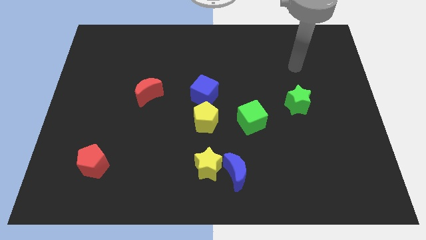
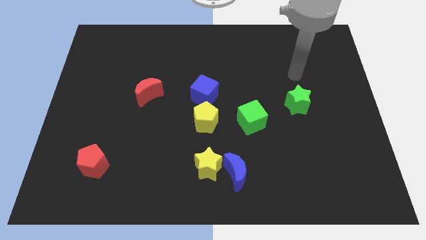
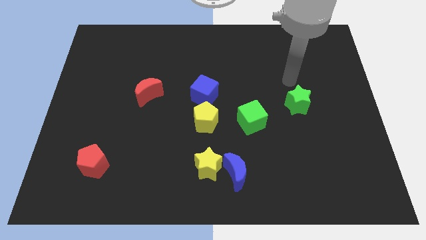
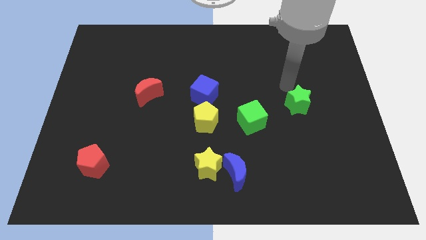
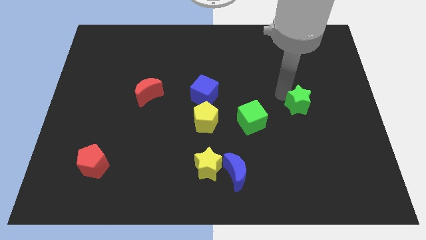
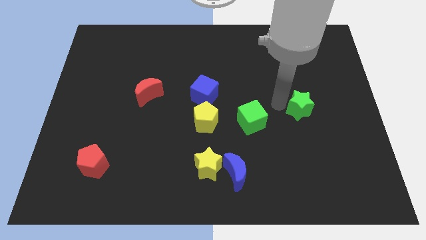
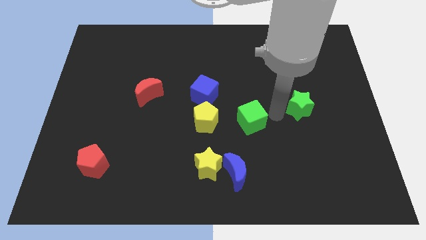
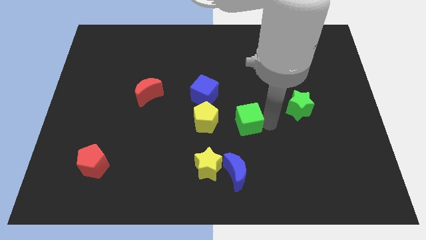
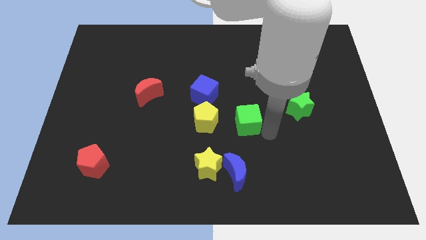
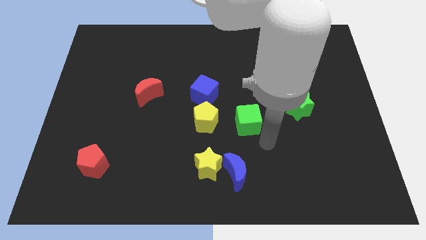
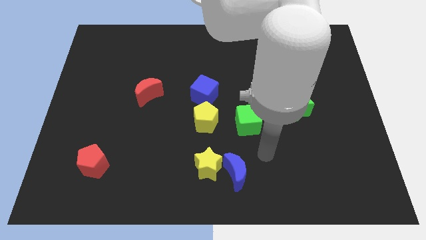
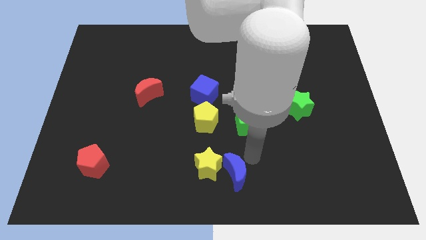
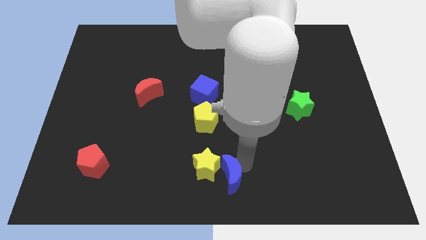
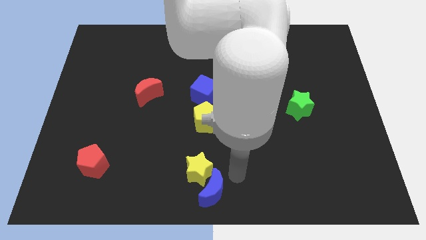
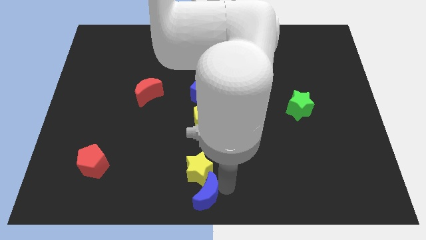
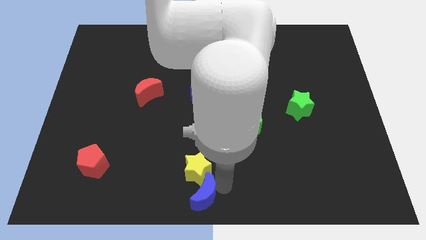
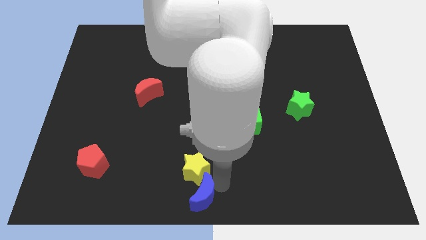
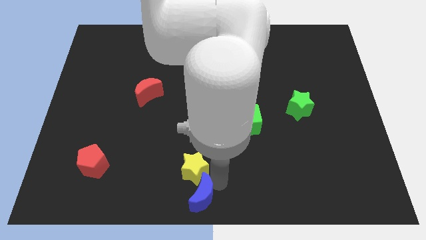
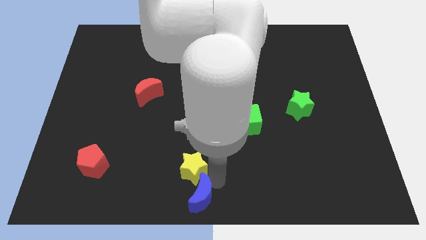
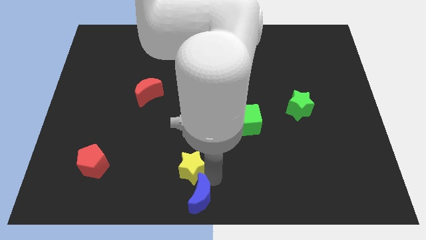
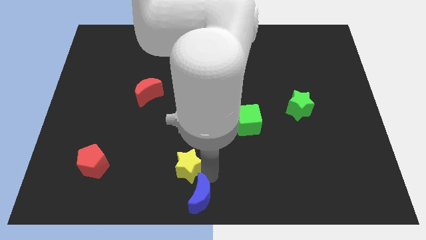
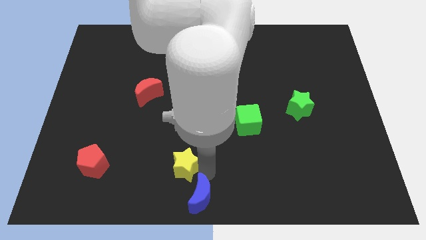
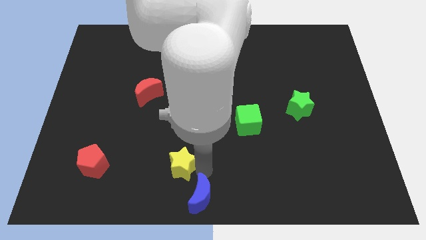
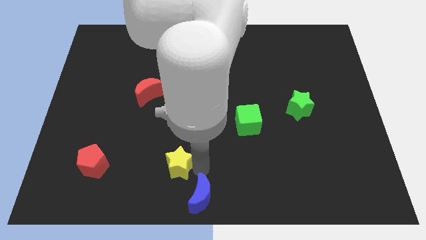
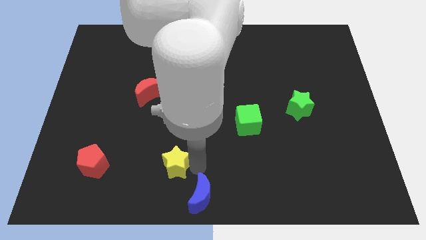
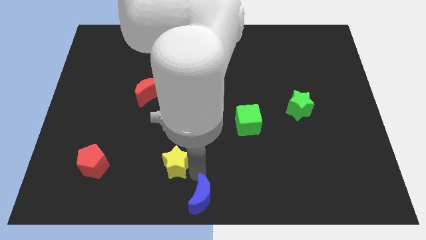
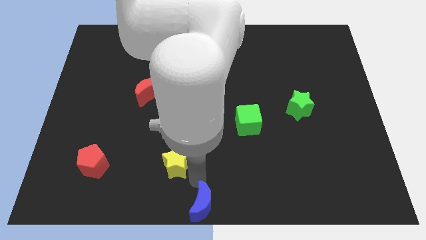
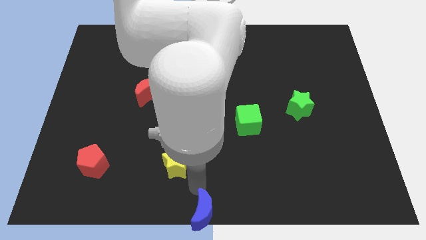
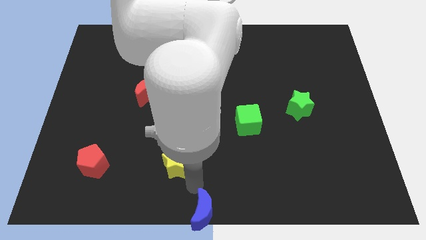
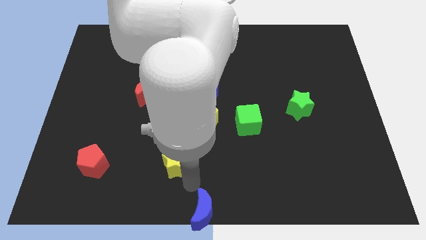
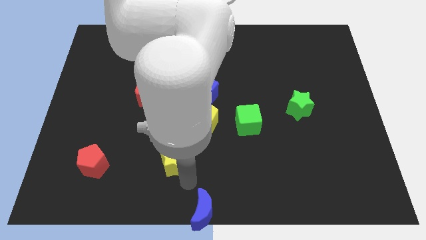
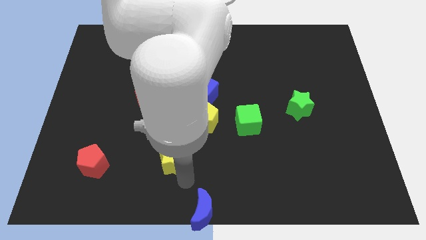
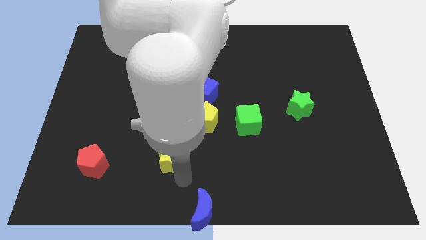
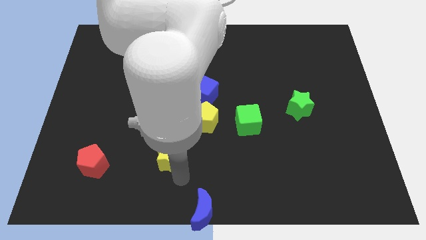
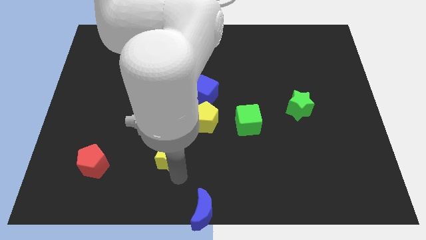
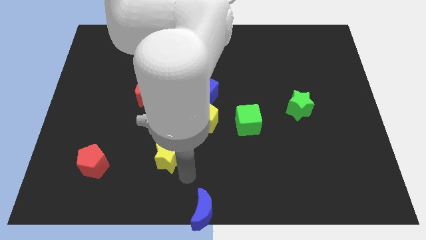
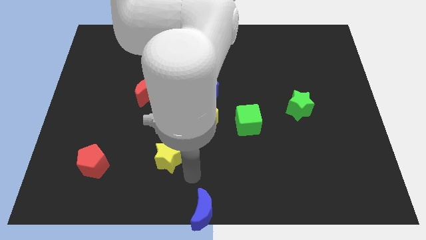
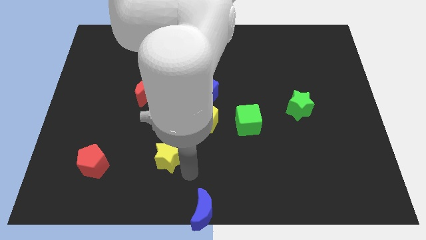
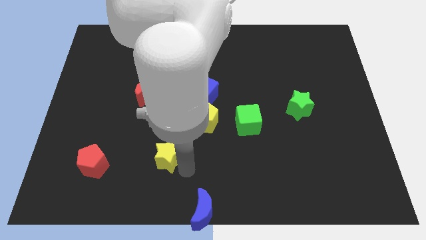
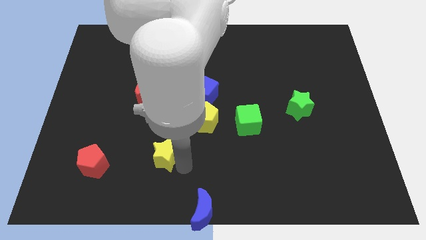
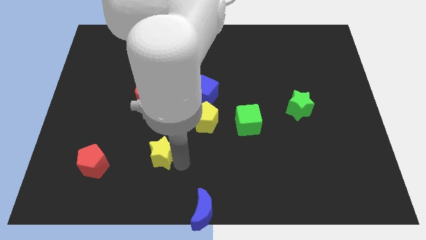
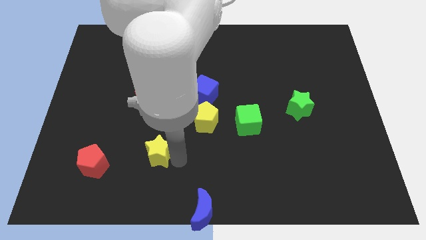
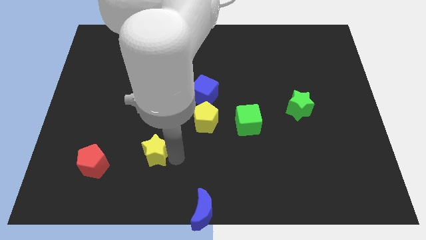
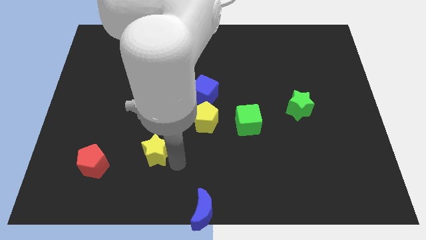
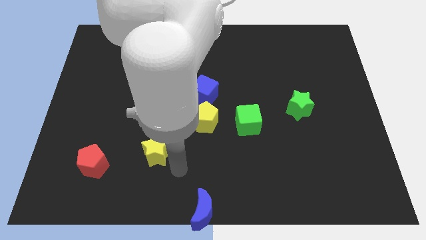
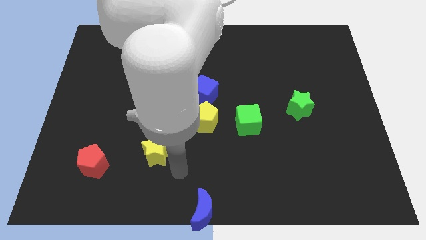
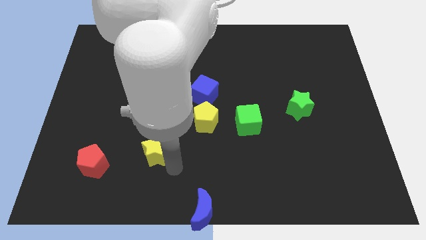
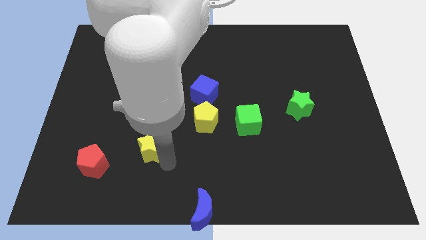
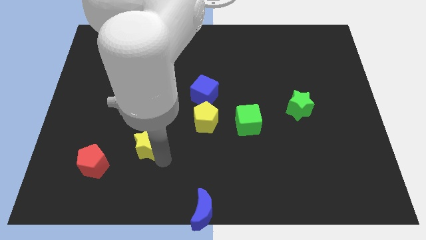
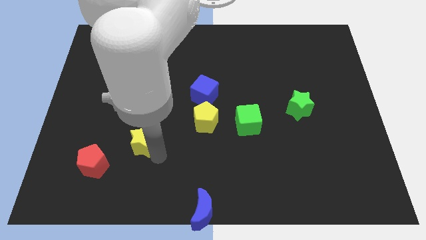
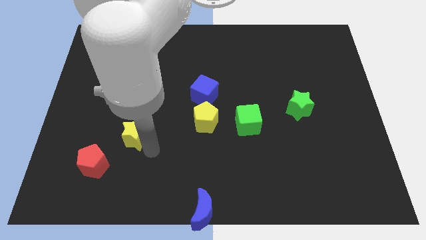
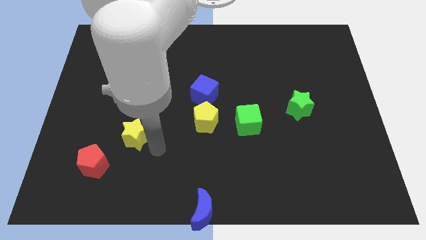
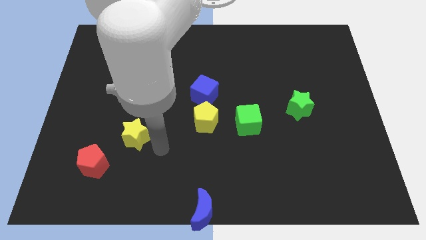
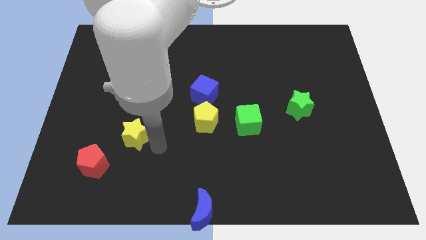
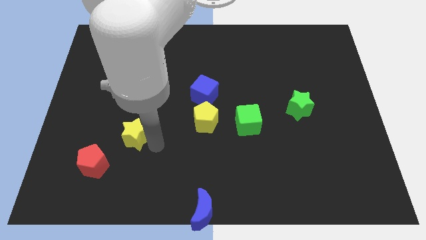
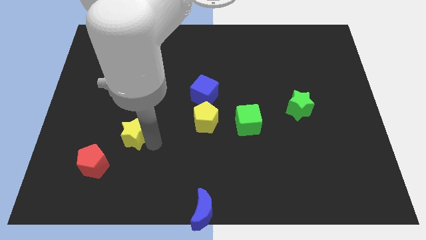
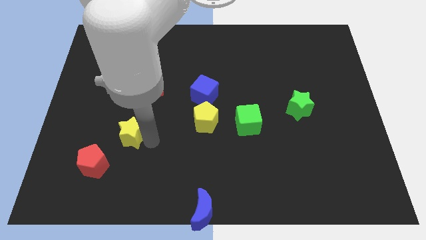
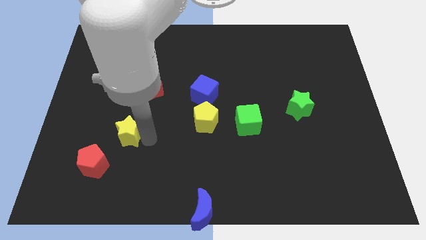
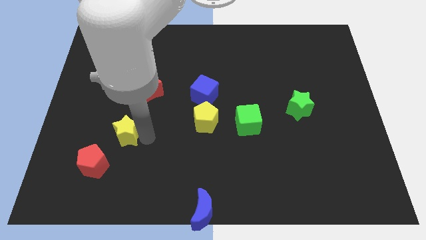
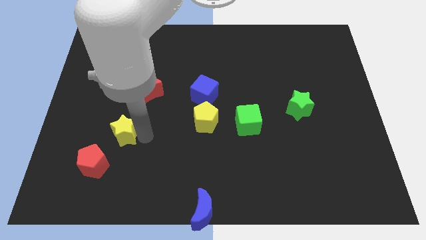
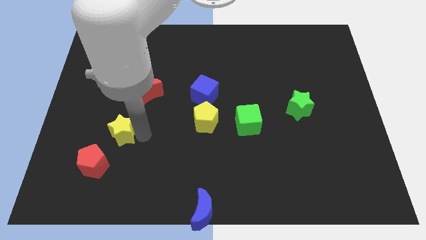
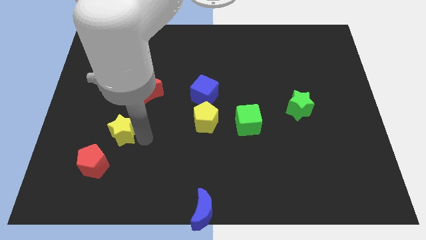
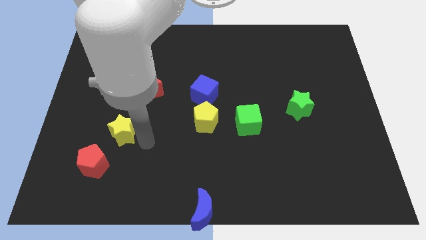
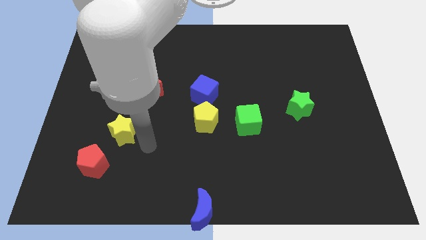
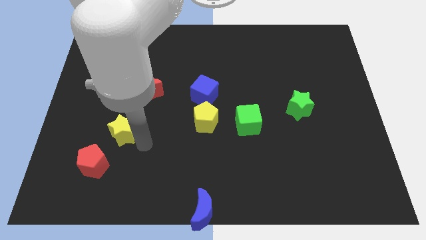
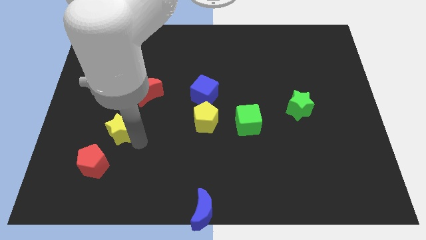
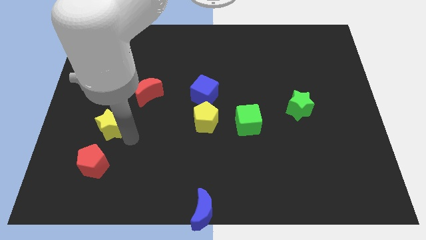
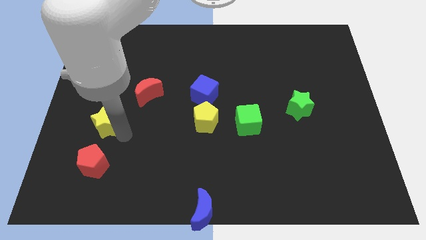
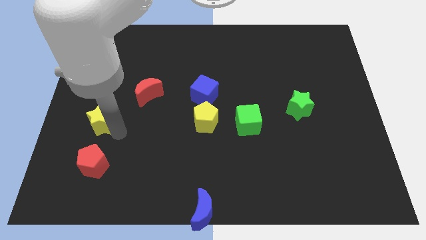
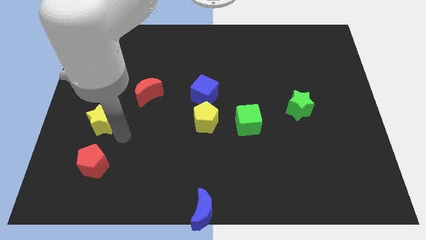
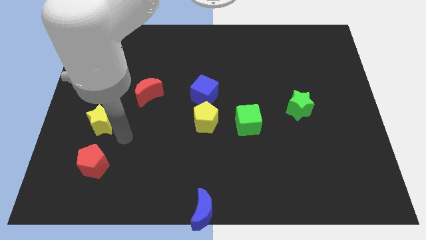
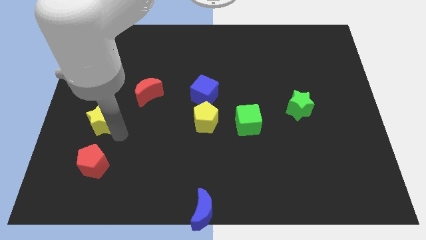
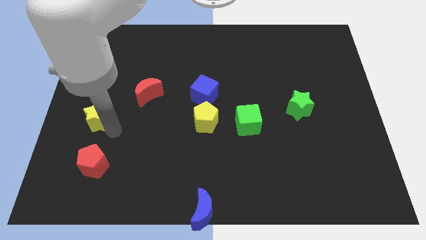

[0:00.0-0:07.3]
push the yellow star to the center left
